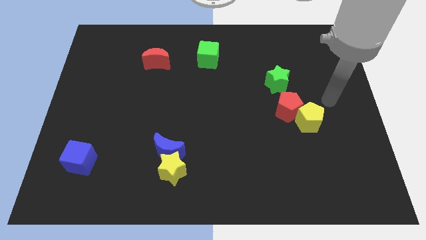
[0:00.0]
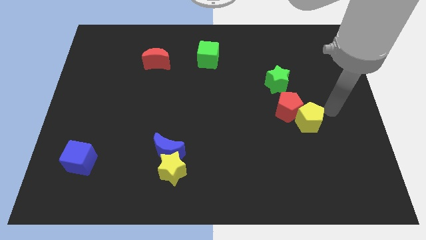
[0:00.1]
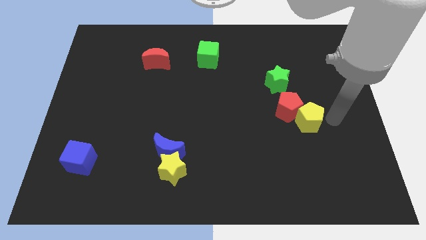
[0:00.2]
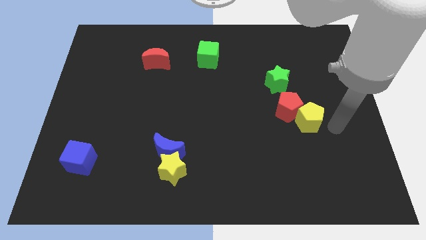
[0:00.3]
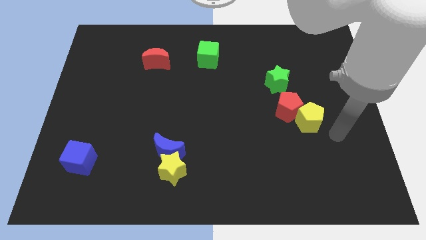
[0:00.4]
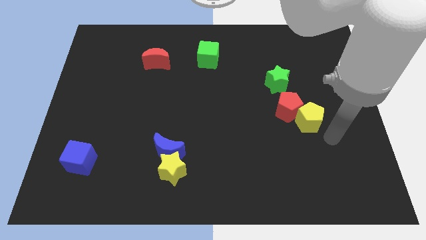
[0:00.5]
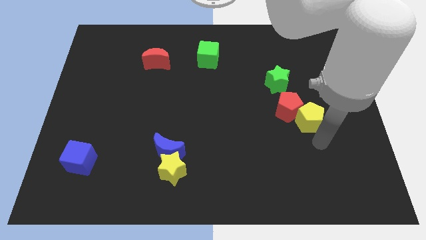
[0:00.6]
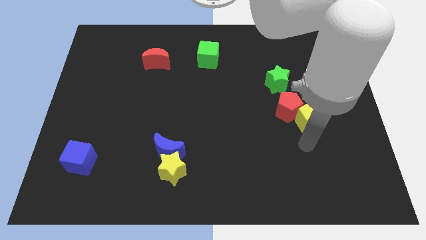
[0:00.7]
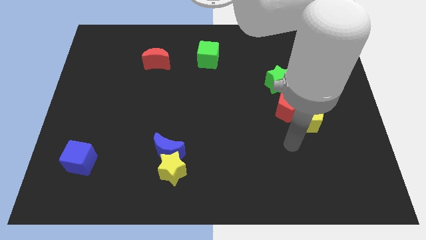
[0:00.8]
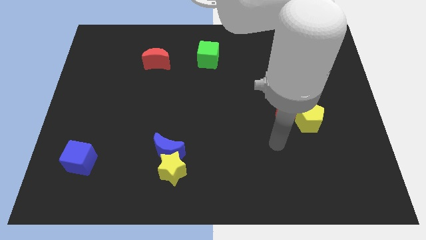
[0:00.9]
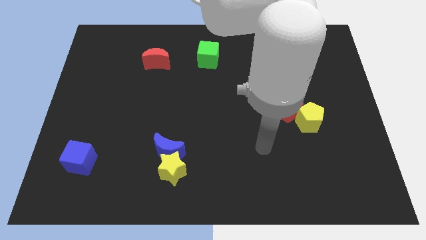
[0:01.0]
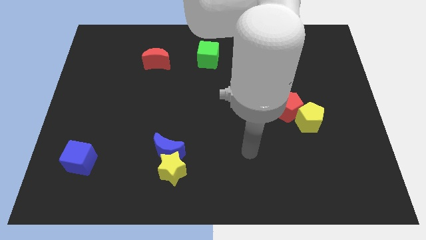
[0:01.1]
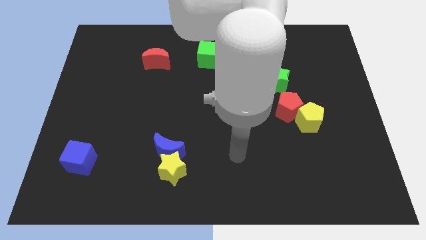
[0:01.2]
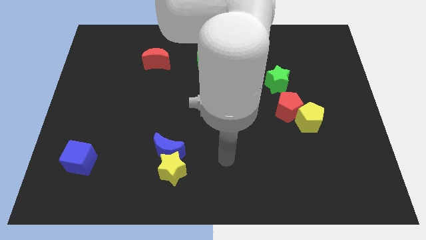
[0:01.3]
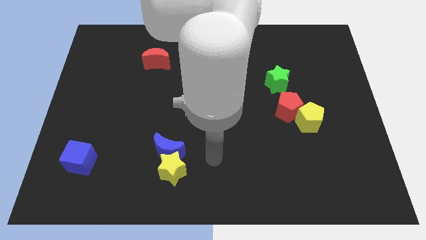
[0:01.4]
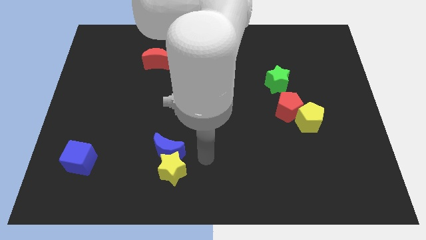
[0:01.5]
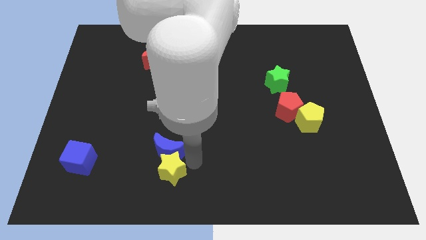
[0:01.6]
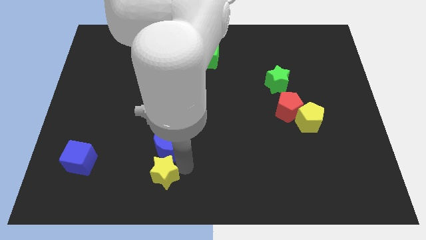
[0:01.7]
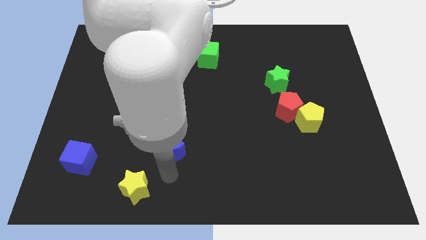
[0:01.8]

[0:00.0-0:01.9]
pull the blue moon apart from the yellow star

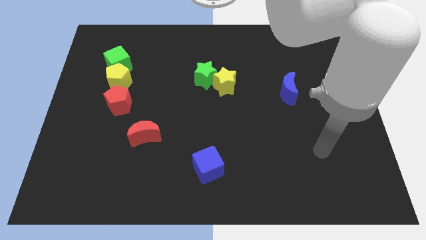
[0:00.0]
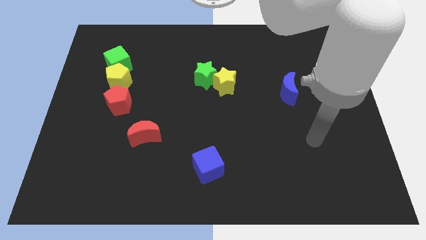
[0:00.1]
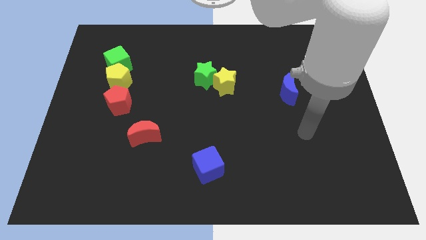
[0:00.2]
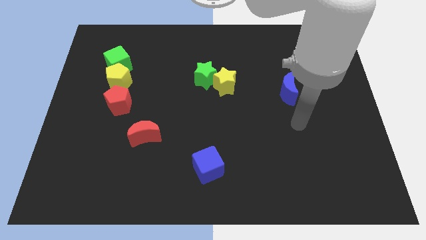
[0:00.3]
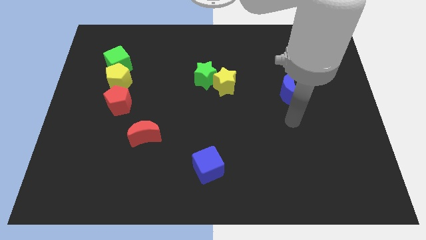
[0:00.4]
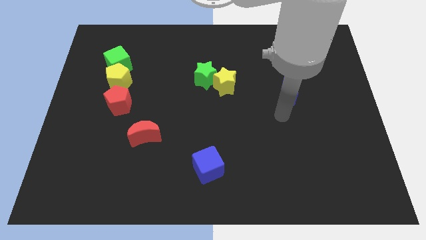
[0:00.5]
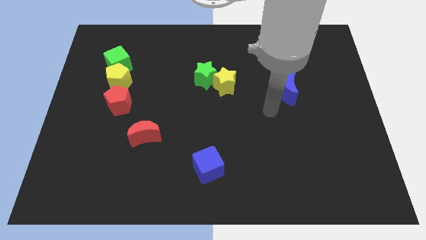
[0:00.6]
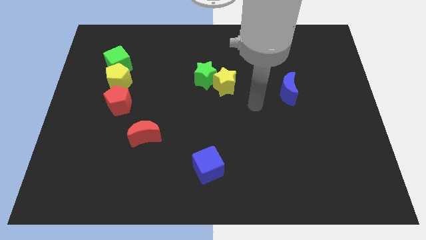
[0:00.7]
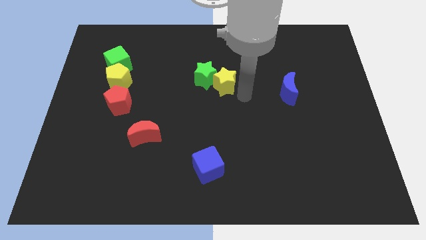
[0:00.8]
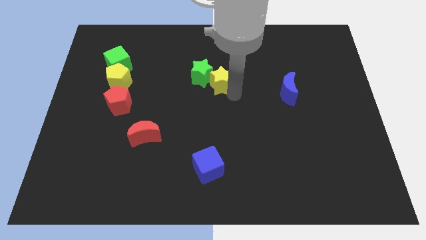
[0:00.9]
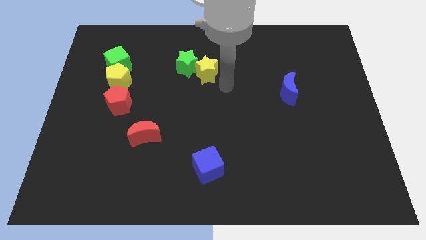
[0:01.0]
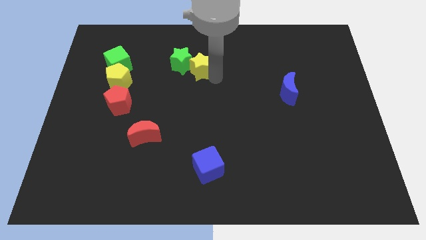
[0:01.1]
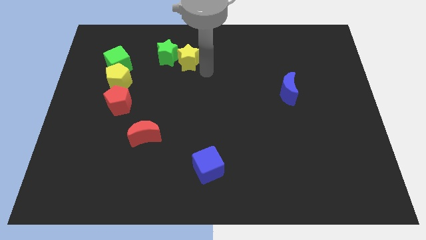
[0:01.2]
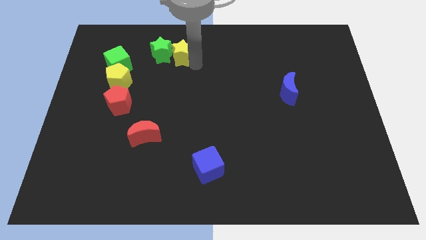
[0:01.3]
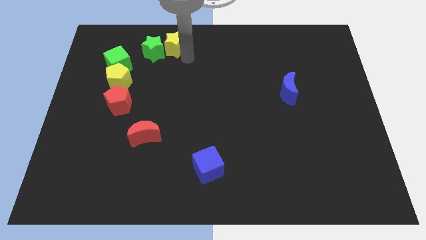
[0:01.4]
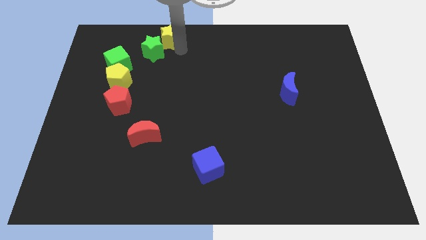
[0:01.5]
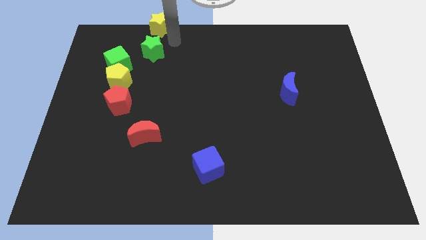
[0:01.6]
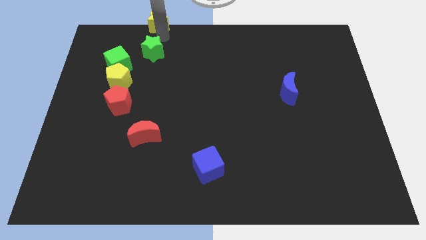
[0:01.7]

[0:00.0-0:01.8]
separate the green star from the yellow star

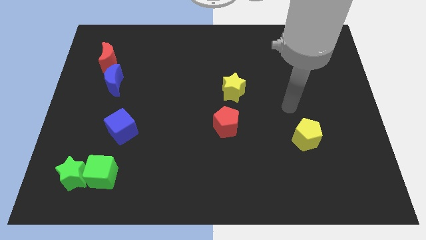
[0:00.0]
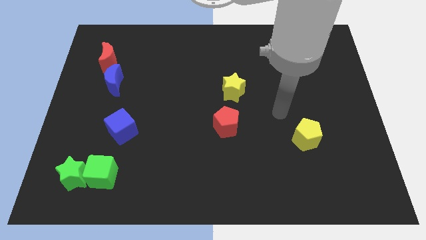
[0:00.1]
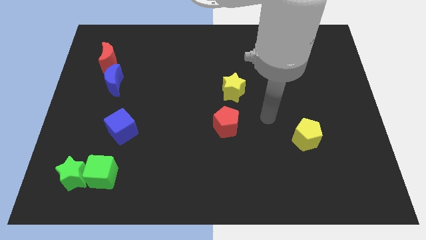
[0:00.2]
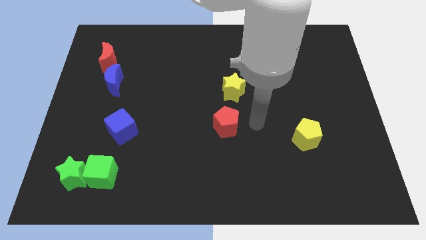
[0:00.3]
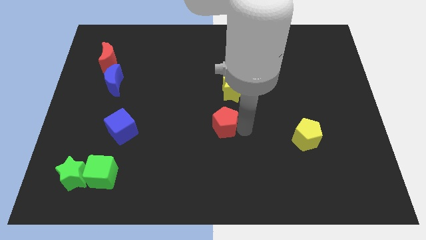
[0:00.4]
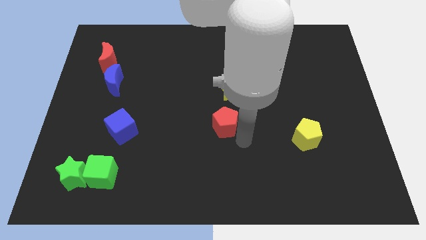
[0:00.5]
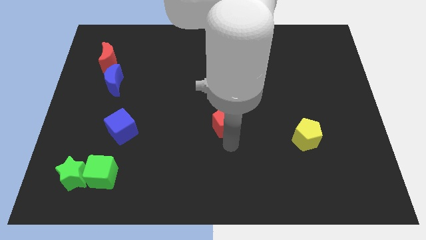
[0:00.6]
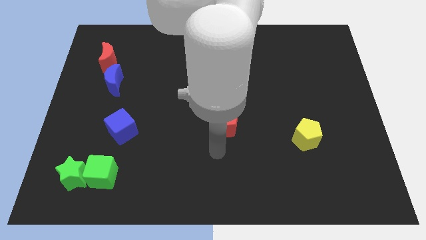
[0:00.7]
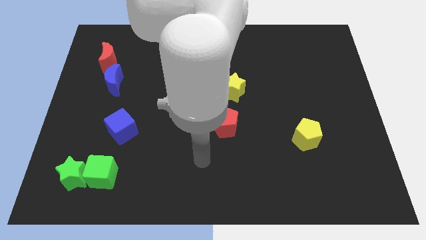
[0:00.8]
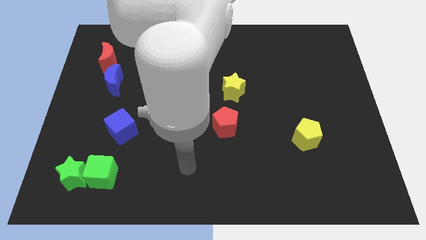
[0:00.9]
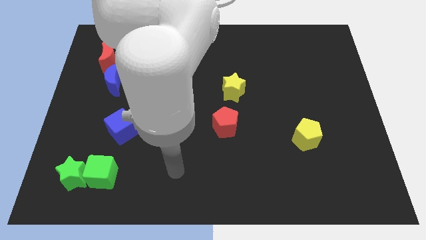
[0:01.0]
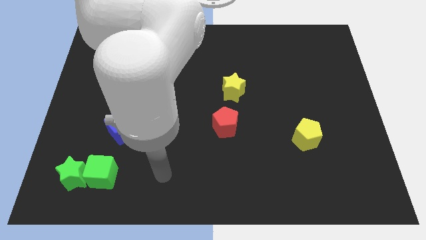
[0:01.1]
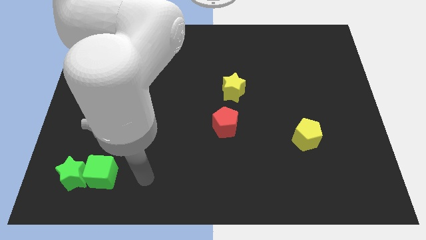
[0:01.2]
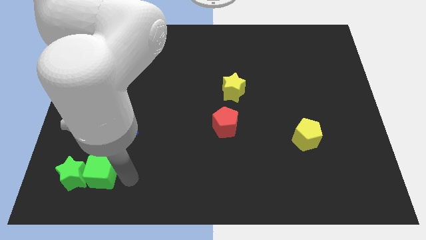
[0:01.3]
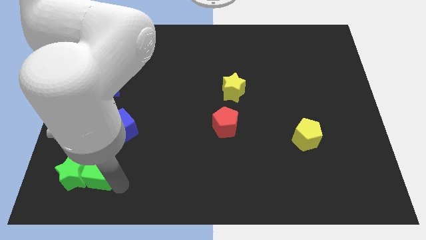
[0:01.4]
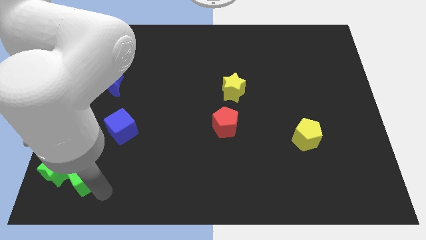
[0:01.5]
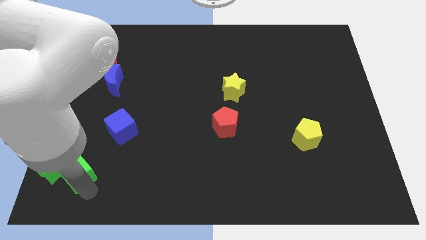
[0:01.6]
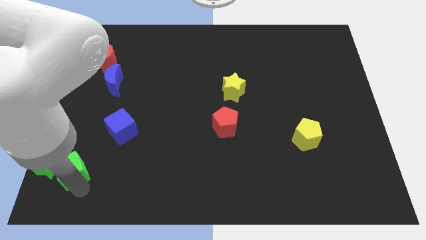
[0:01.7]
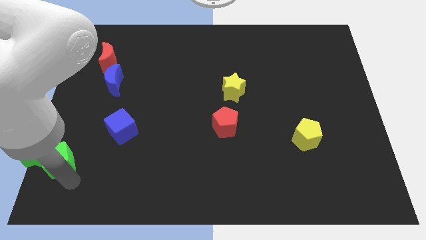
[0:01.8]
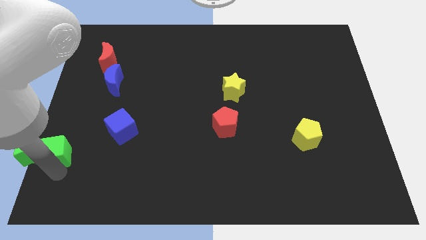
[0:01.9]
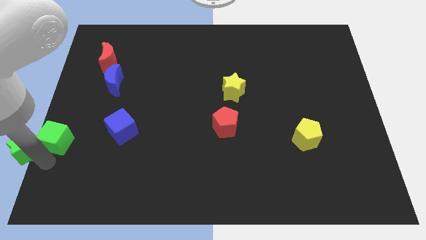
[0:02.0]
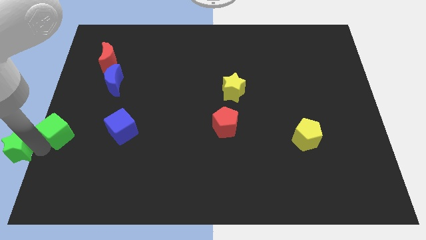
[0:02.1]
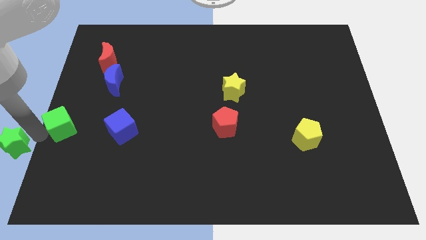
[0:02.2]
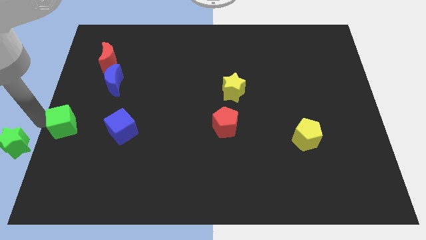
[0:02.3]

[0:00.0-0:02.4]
move the green cube away from the green star

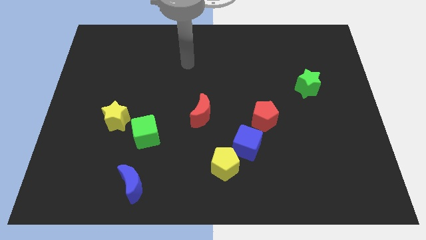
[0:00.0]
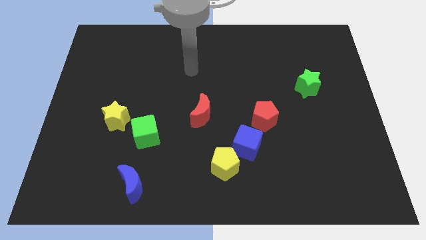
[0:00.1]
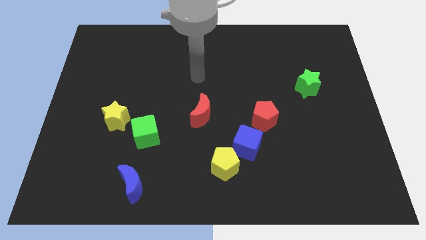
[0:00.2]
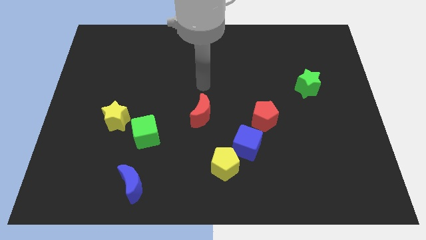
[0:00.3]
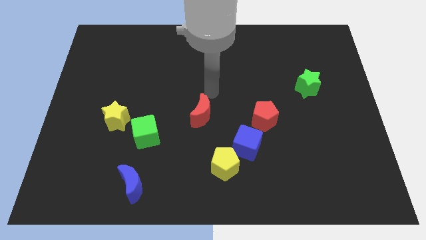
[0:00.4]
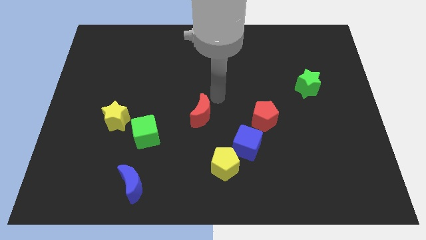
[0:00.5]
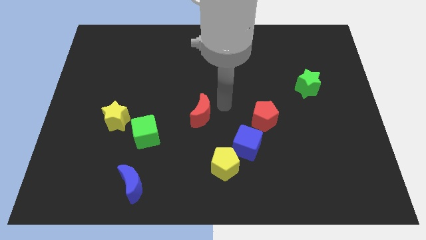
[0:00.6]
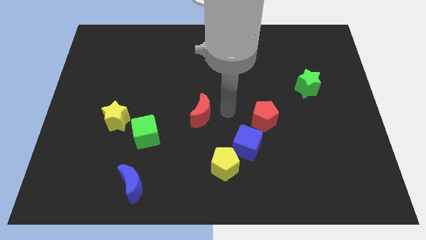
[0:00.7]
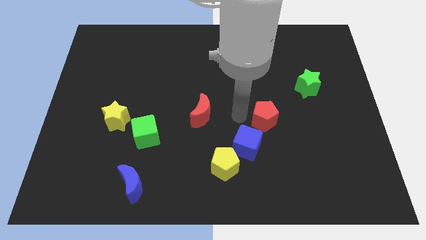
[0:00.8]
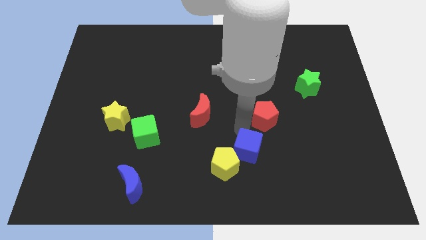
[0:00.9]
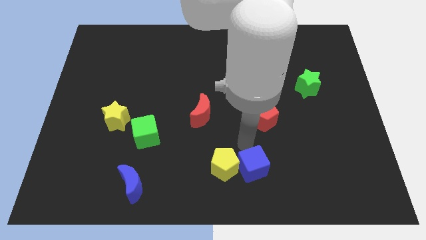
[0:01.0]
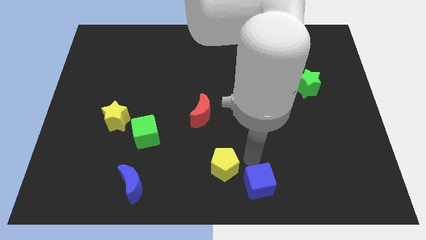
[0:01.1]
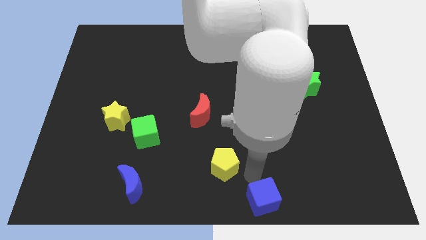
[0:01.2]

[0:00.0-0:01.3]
separate the yellow pentagon from the blue cube

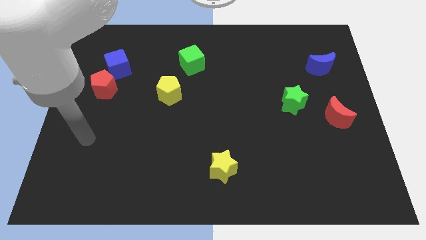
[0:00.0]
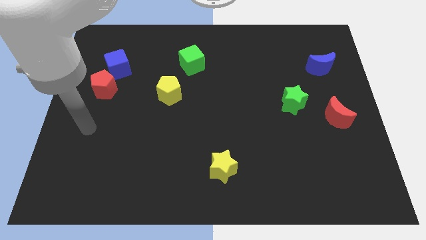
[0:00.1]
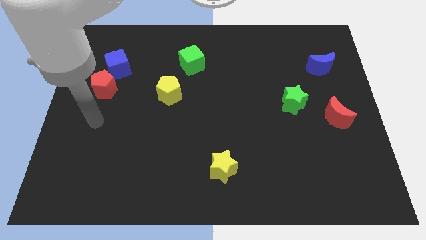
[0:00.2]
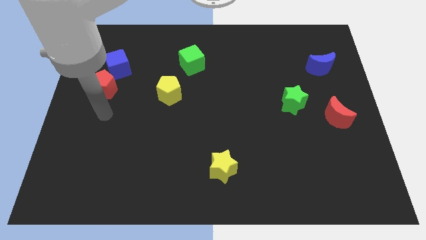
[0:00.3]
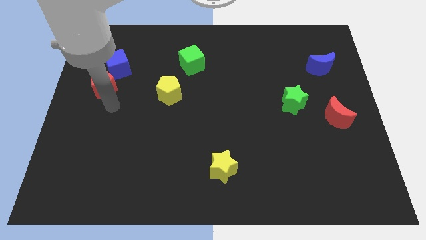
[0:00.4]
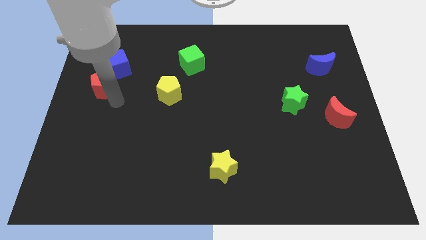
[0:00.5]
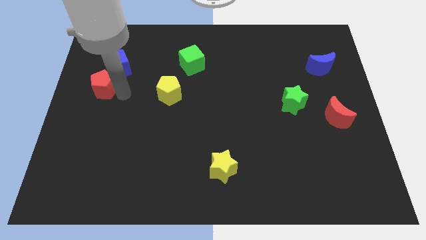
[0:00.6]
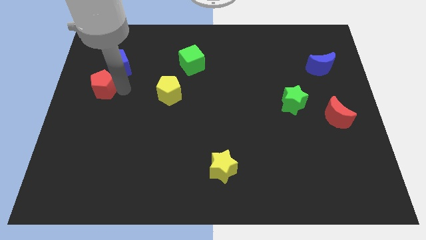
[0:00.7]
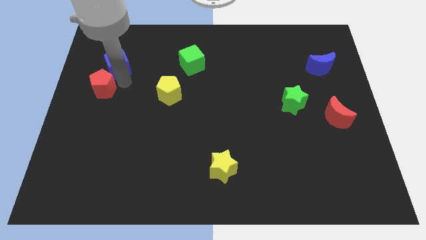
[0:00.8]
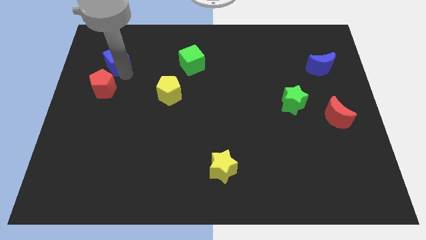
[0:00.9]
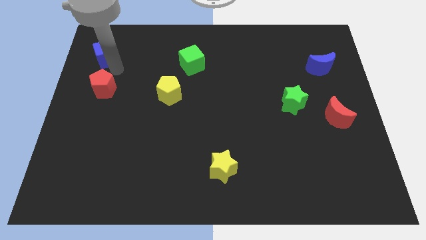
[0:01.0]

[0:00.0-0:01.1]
separate the red pentagon from the blue cube

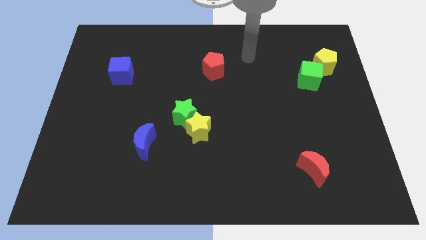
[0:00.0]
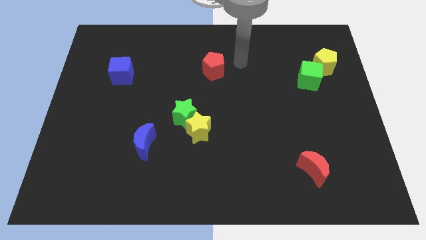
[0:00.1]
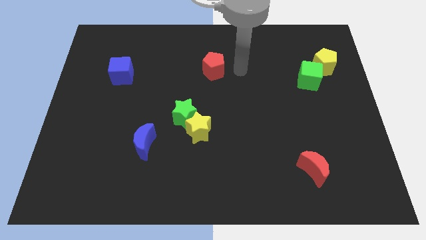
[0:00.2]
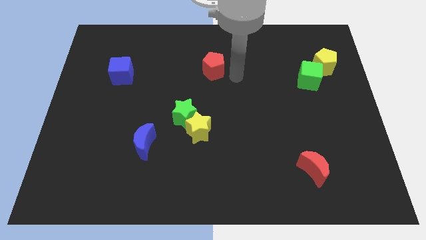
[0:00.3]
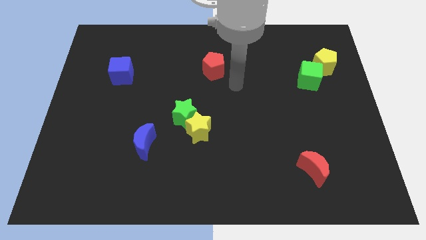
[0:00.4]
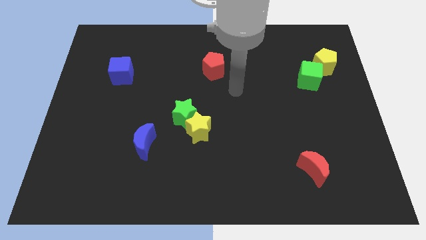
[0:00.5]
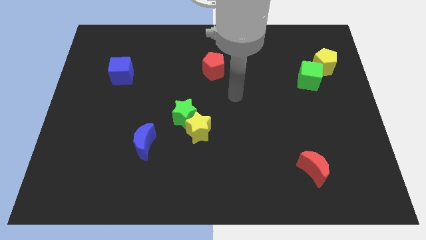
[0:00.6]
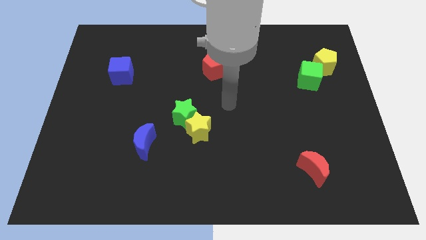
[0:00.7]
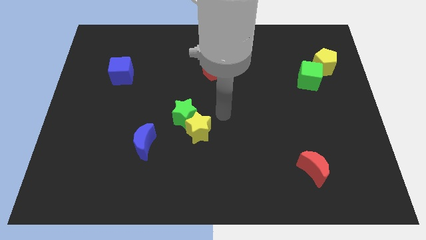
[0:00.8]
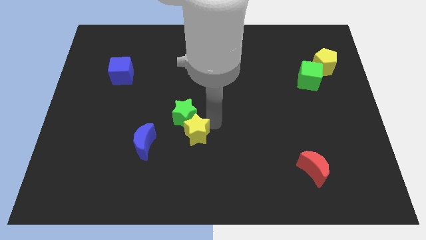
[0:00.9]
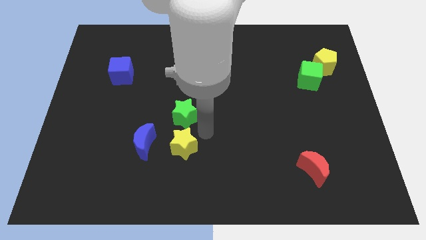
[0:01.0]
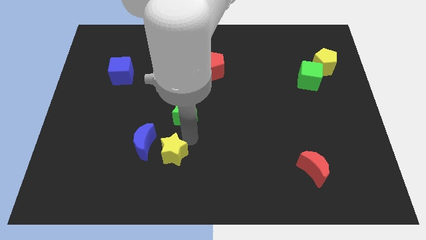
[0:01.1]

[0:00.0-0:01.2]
move the green star away from the yellow star
